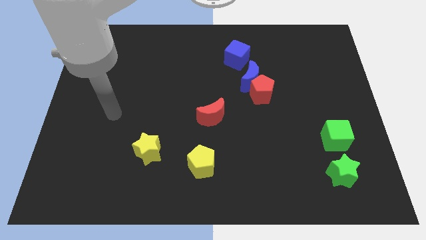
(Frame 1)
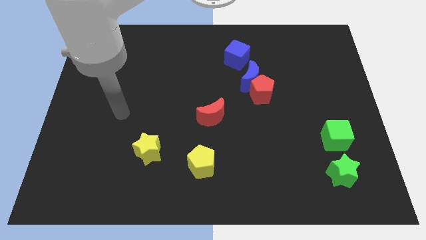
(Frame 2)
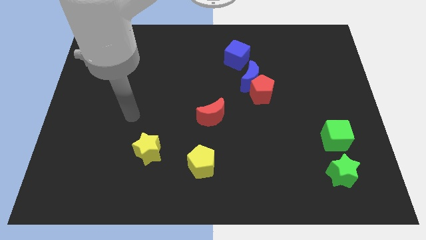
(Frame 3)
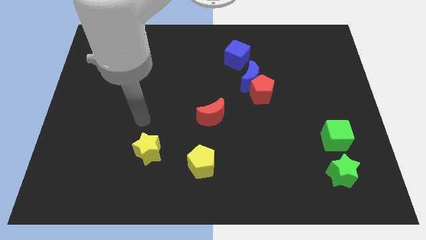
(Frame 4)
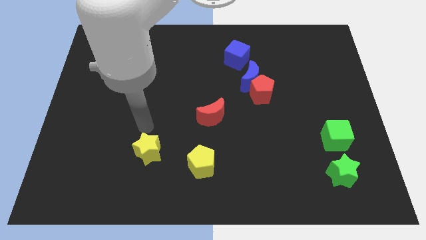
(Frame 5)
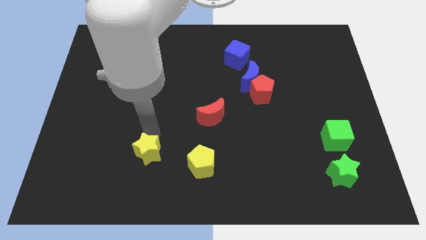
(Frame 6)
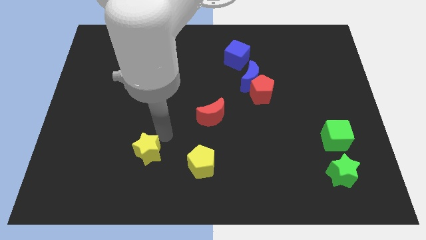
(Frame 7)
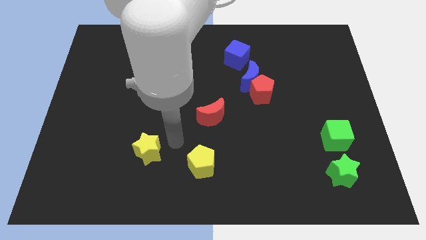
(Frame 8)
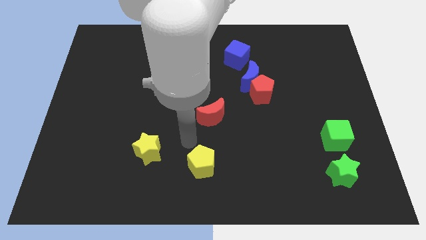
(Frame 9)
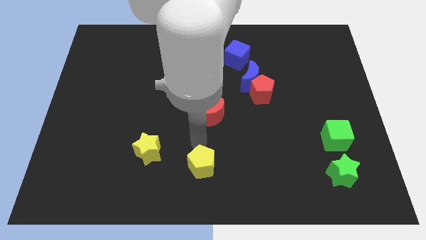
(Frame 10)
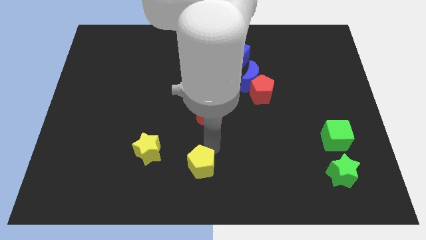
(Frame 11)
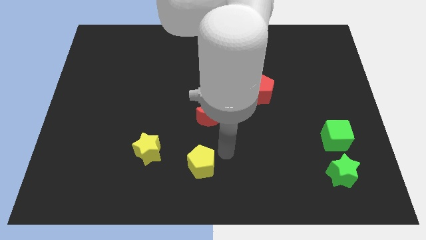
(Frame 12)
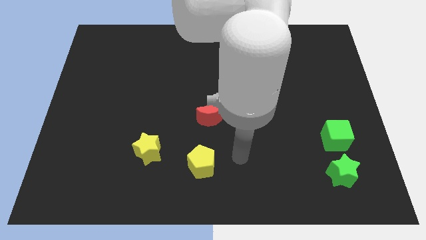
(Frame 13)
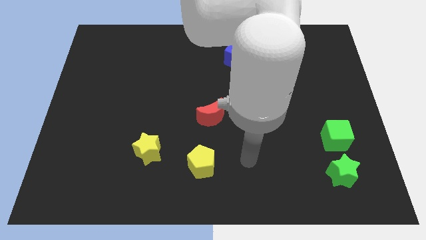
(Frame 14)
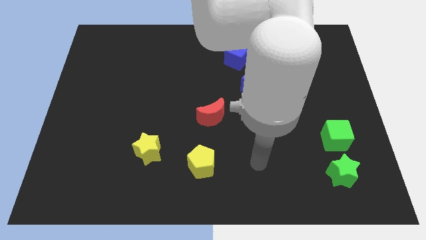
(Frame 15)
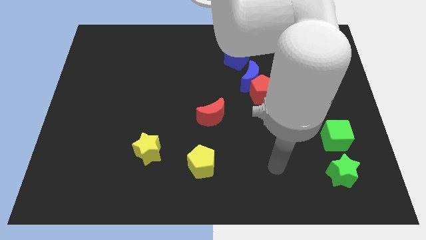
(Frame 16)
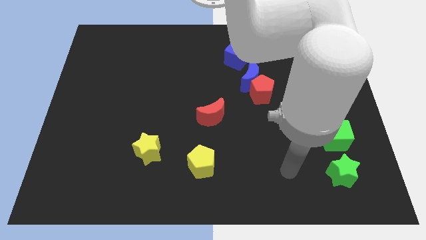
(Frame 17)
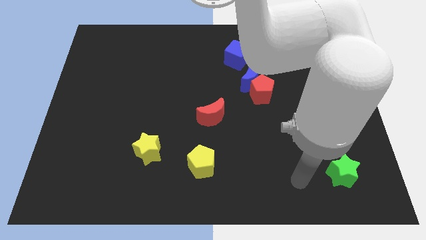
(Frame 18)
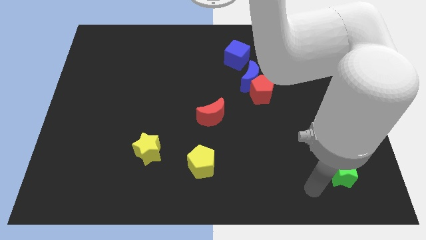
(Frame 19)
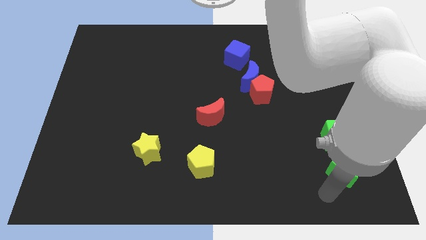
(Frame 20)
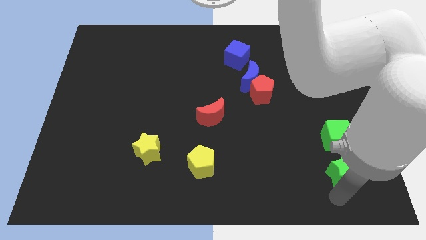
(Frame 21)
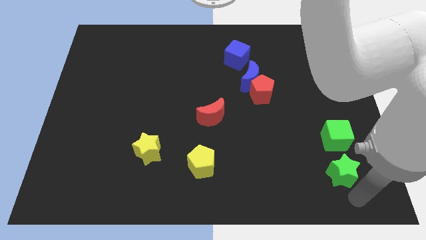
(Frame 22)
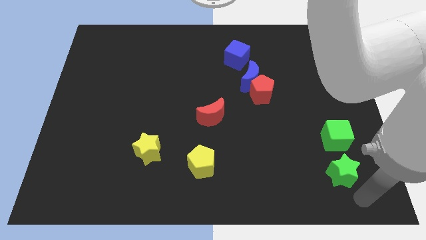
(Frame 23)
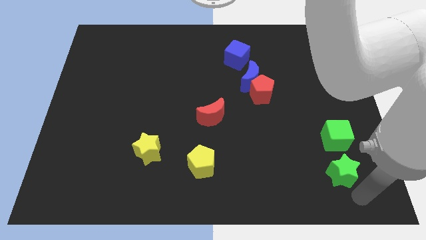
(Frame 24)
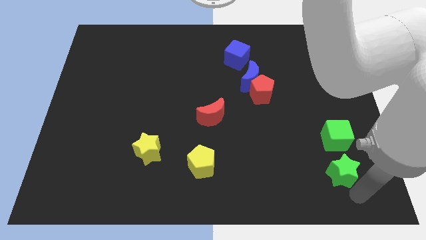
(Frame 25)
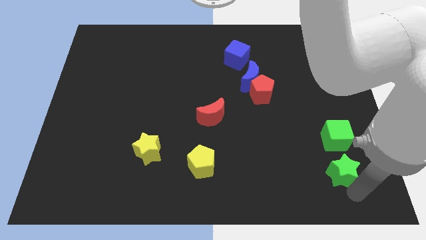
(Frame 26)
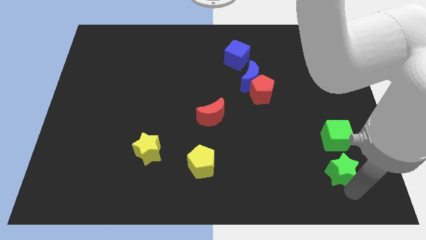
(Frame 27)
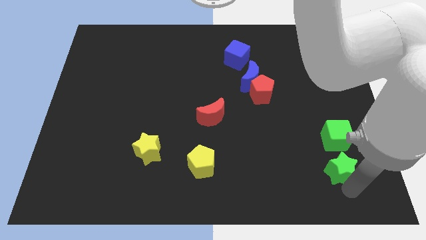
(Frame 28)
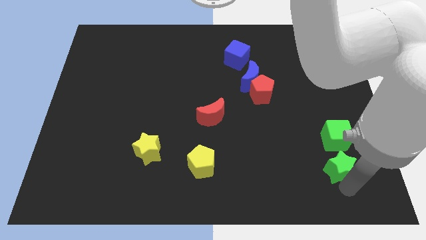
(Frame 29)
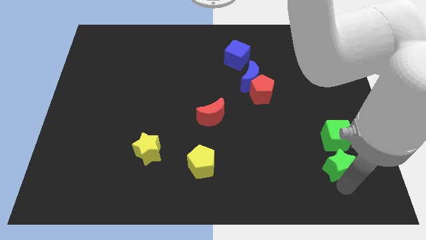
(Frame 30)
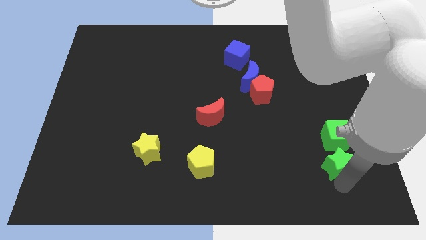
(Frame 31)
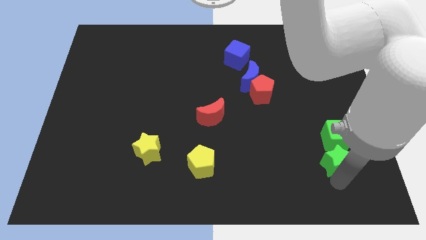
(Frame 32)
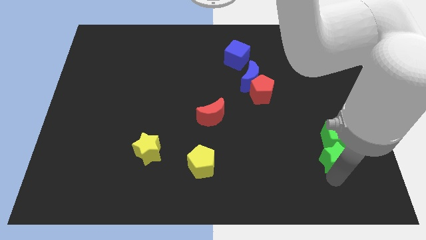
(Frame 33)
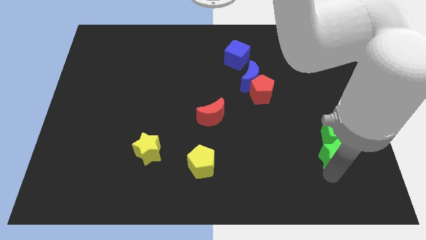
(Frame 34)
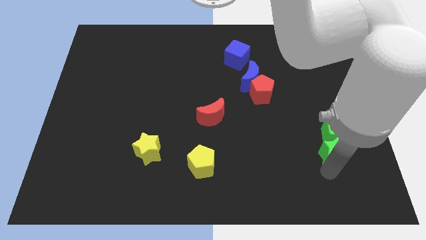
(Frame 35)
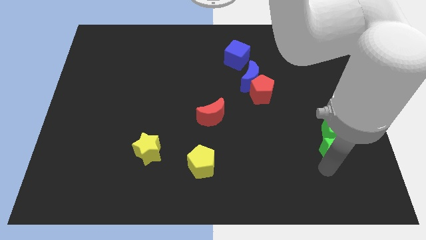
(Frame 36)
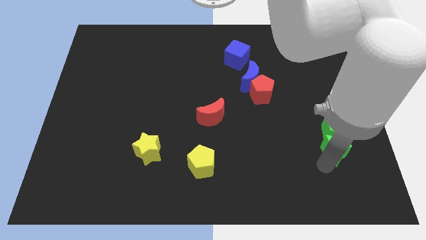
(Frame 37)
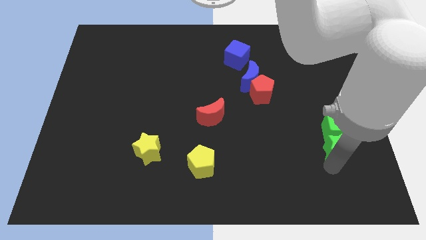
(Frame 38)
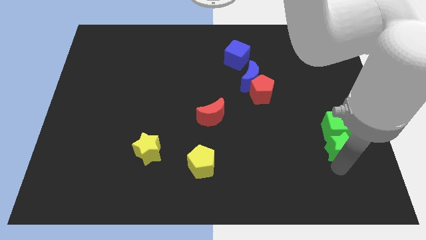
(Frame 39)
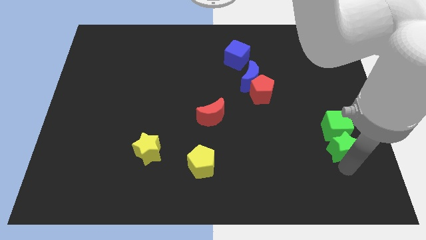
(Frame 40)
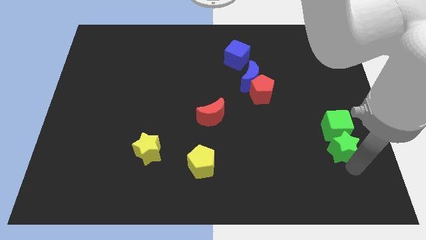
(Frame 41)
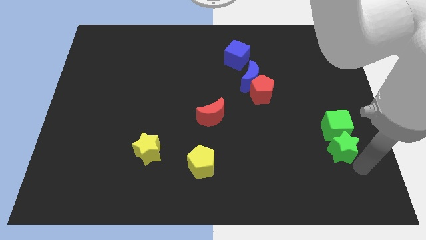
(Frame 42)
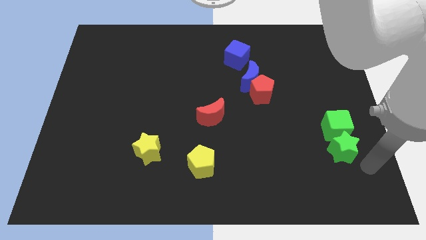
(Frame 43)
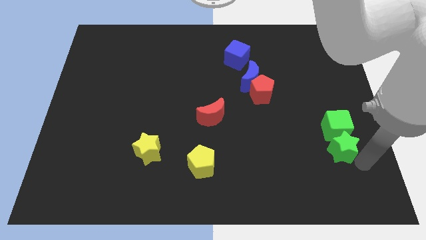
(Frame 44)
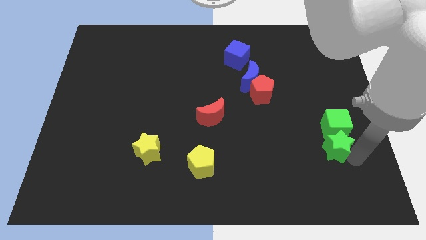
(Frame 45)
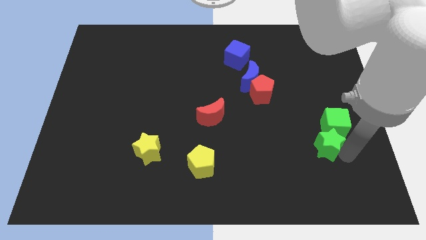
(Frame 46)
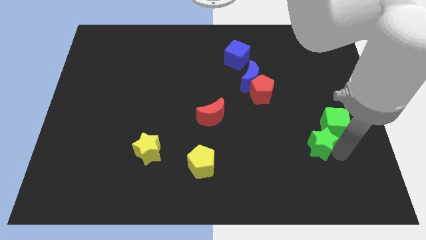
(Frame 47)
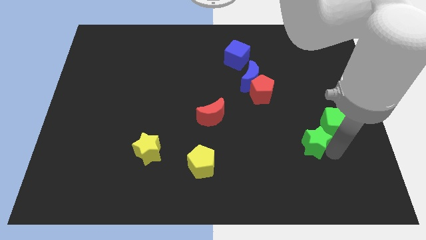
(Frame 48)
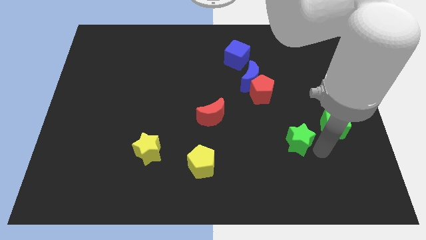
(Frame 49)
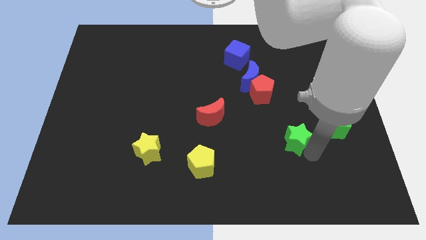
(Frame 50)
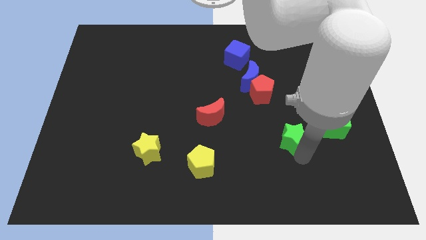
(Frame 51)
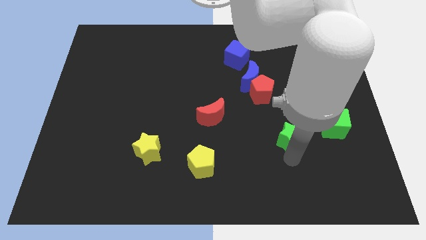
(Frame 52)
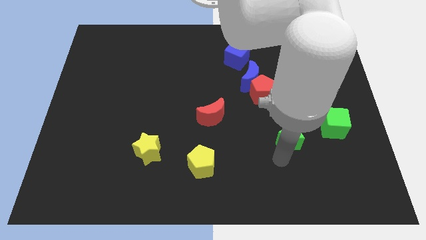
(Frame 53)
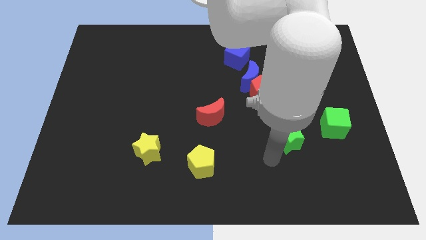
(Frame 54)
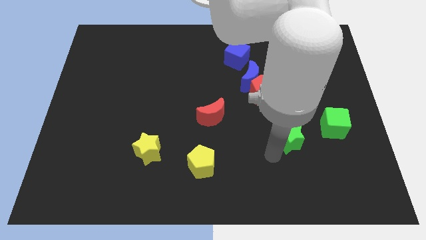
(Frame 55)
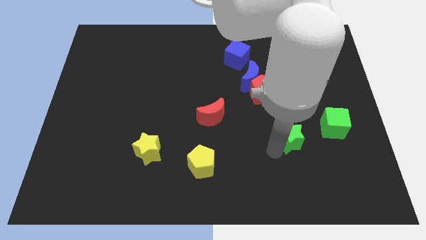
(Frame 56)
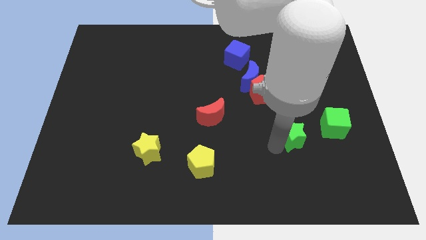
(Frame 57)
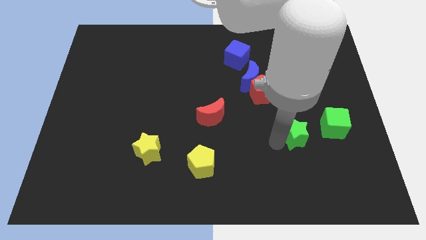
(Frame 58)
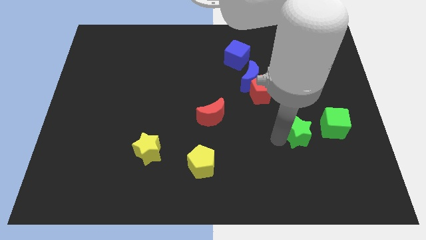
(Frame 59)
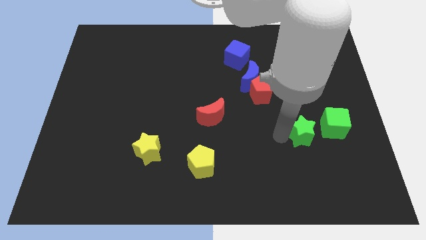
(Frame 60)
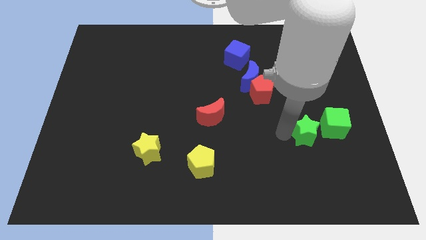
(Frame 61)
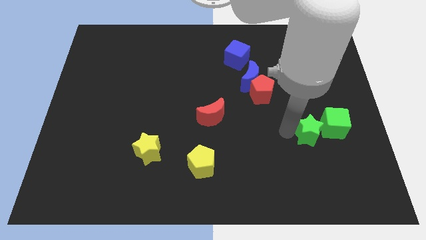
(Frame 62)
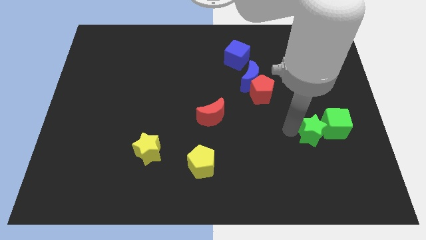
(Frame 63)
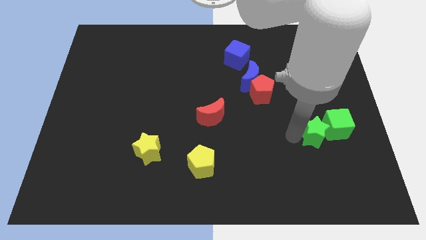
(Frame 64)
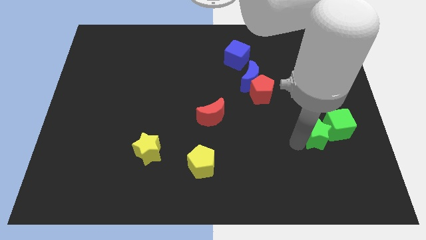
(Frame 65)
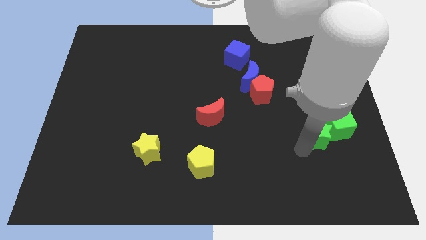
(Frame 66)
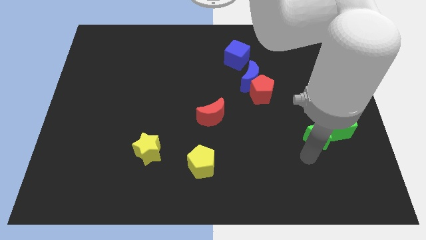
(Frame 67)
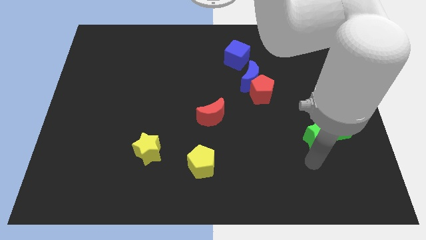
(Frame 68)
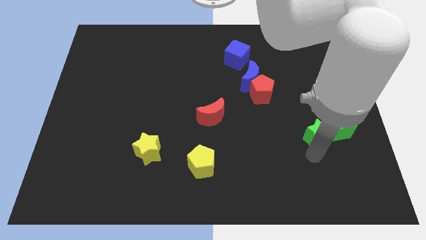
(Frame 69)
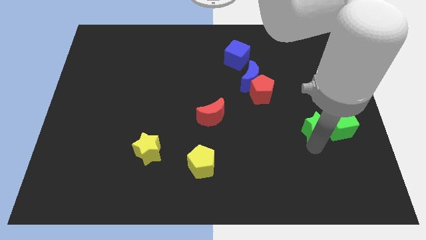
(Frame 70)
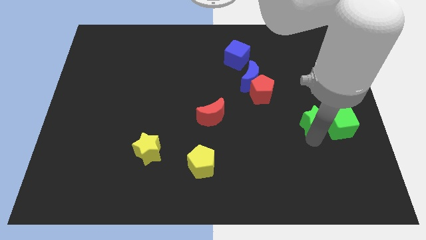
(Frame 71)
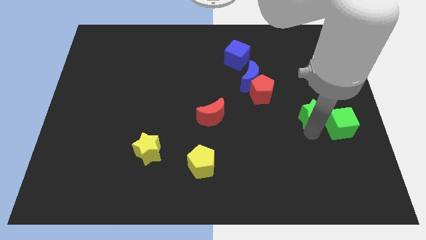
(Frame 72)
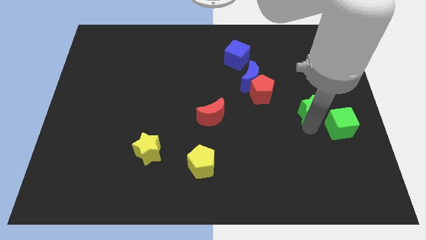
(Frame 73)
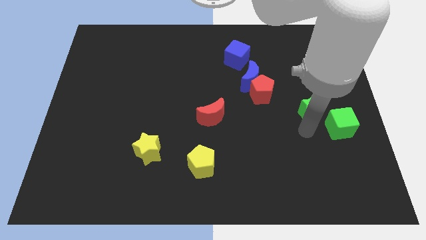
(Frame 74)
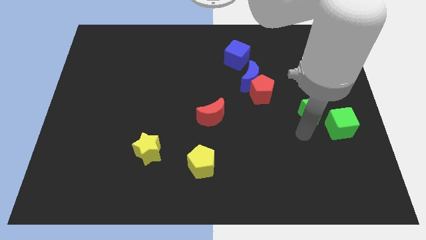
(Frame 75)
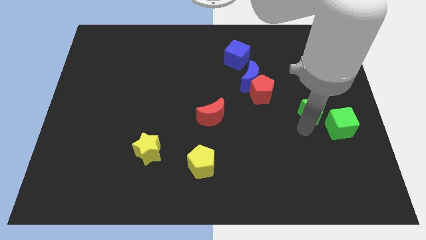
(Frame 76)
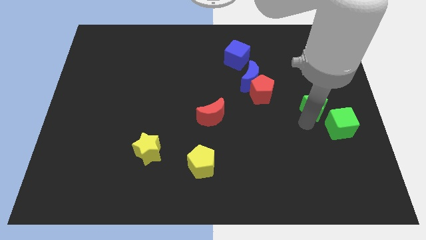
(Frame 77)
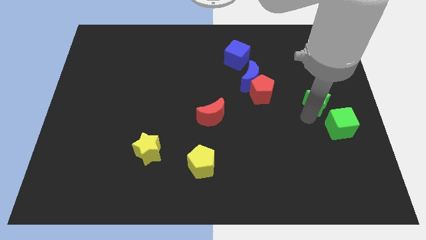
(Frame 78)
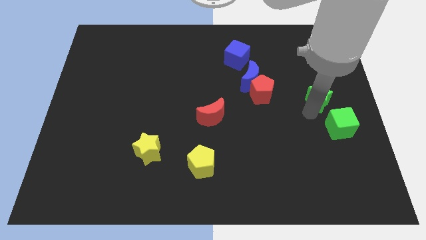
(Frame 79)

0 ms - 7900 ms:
slide the green star up

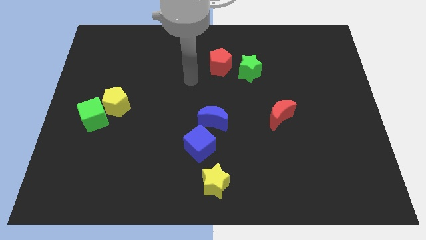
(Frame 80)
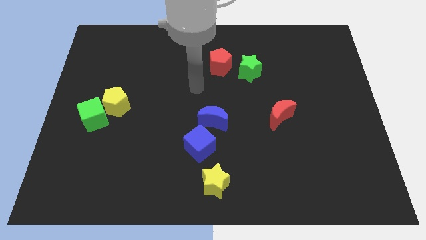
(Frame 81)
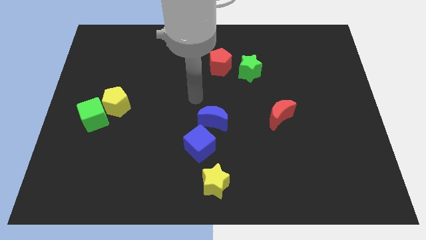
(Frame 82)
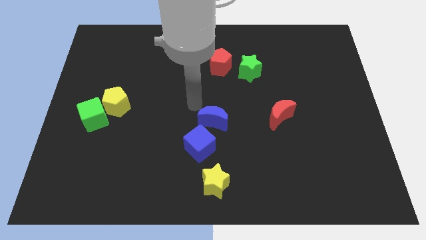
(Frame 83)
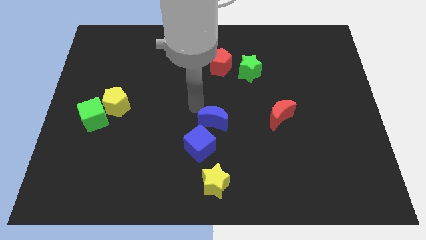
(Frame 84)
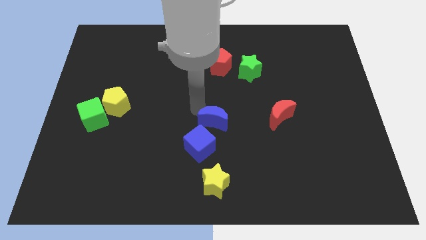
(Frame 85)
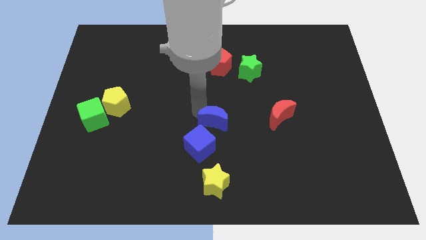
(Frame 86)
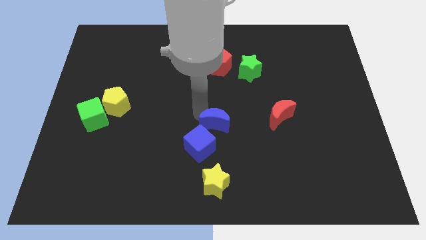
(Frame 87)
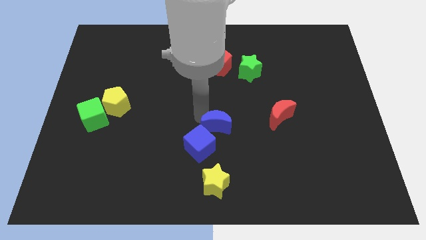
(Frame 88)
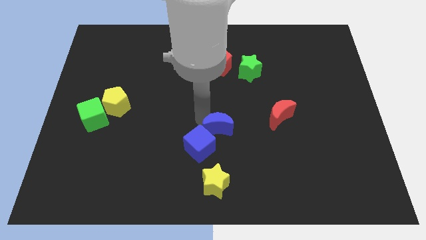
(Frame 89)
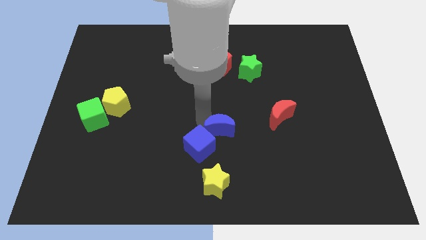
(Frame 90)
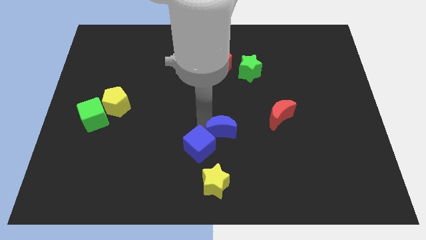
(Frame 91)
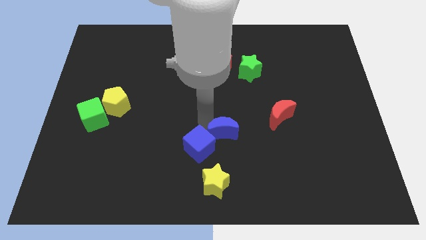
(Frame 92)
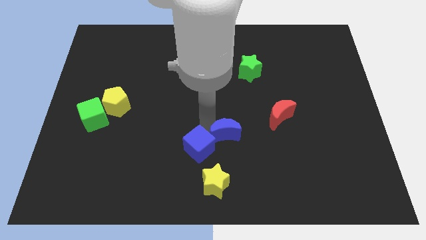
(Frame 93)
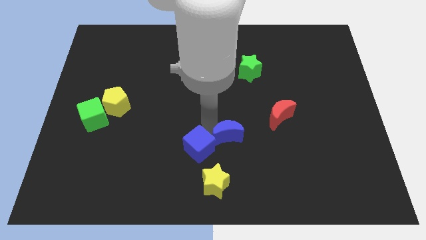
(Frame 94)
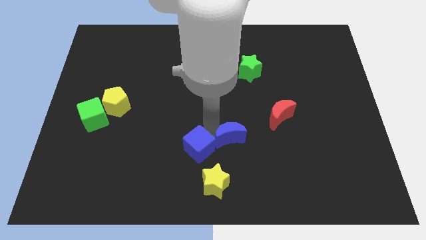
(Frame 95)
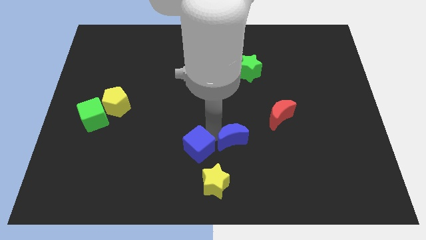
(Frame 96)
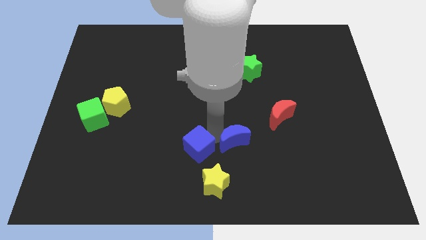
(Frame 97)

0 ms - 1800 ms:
slide the blue moon downwards and right diagonally slightly
